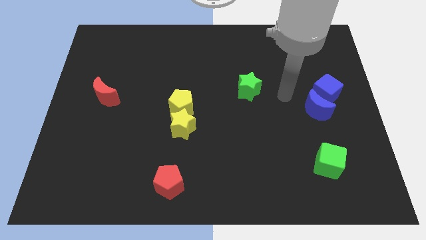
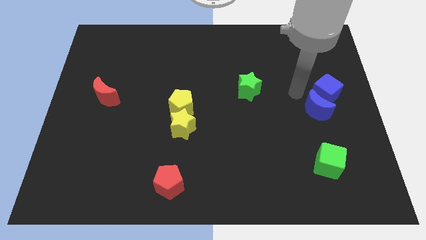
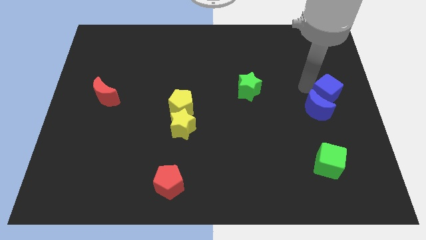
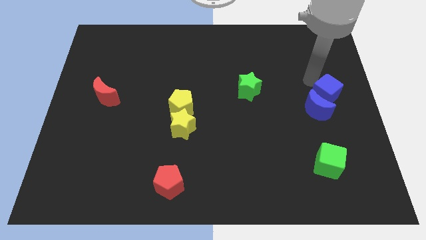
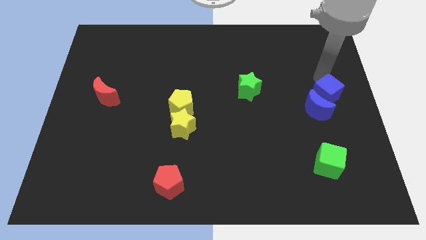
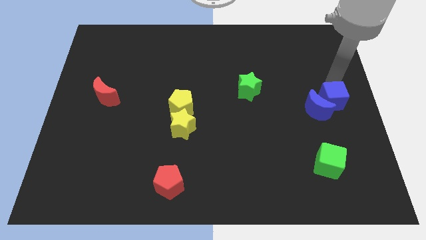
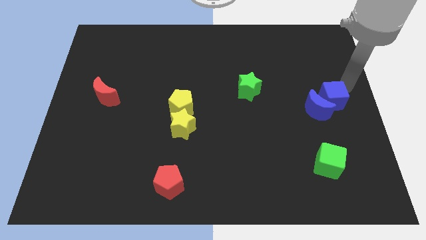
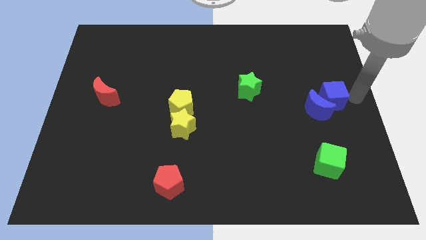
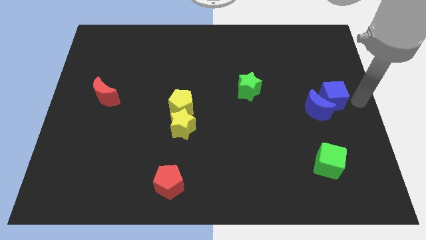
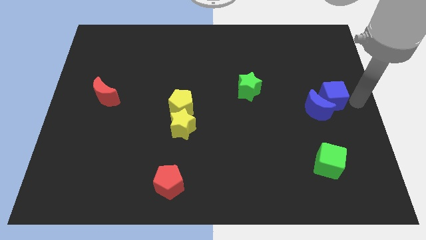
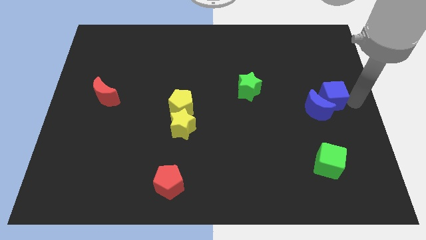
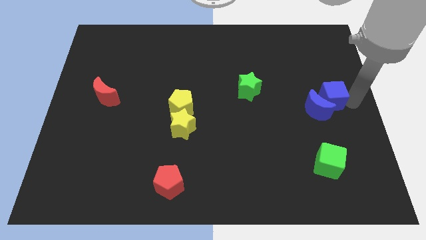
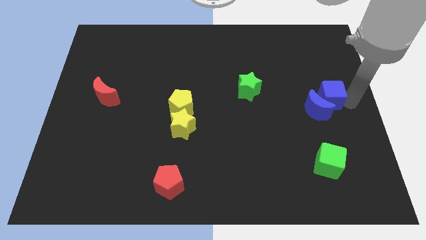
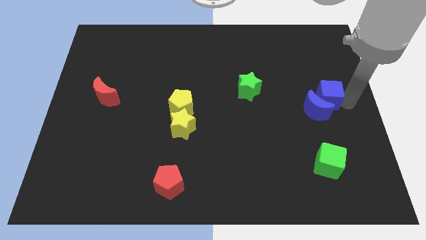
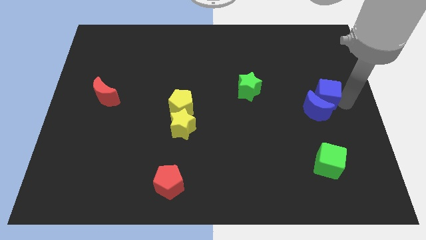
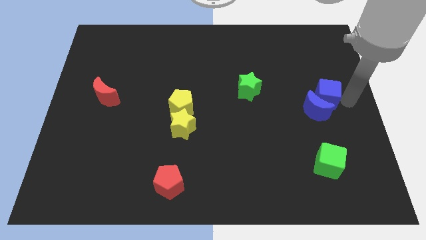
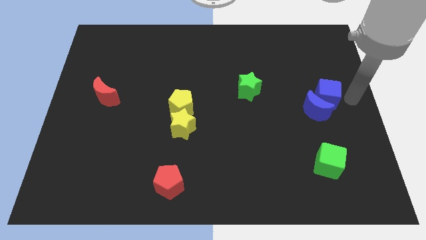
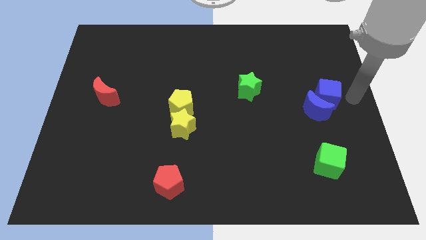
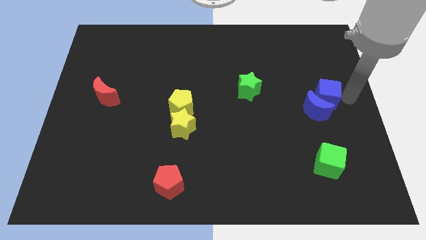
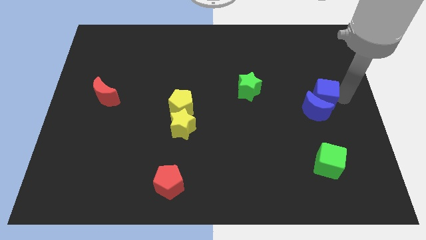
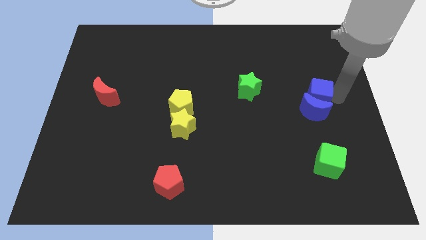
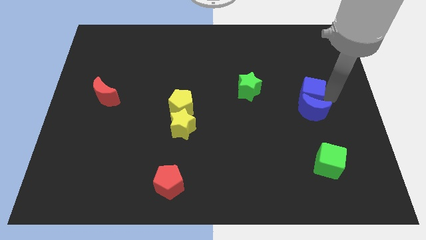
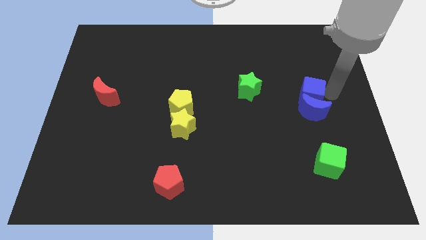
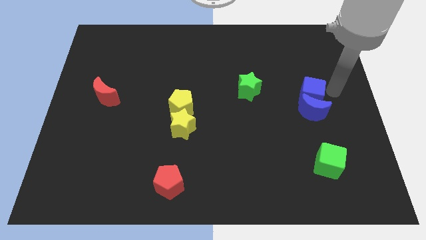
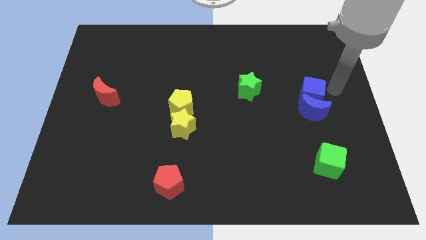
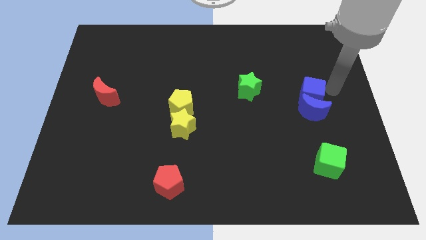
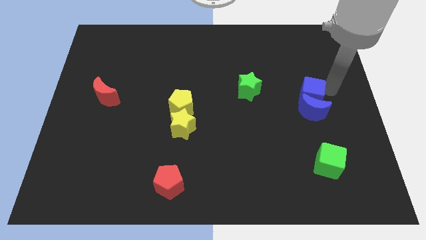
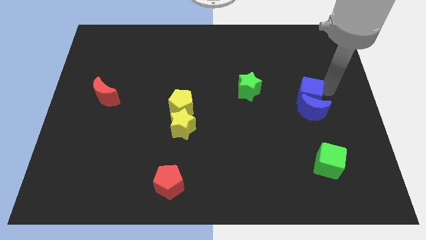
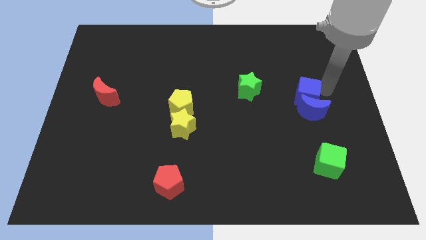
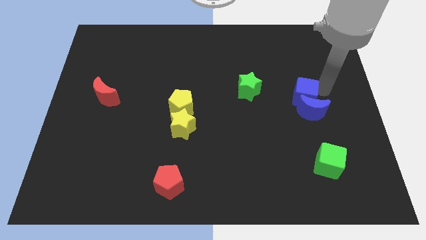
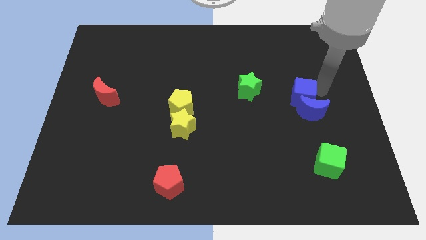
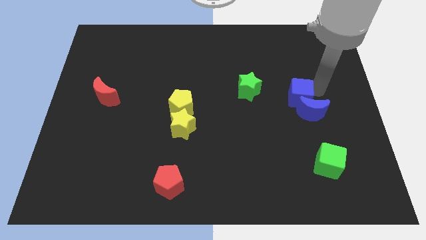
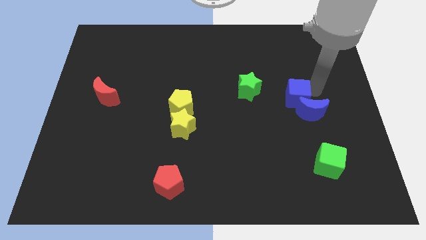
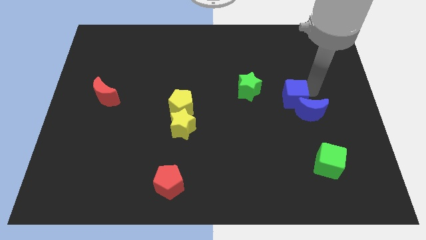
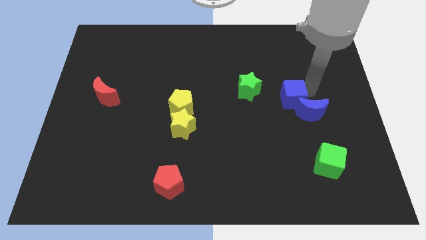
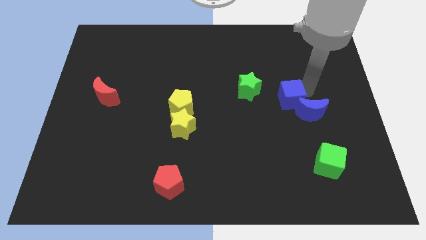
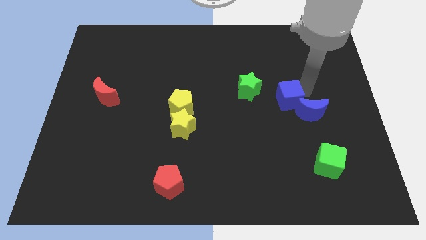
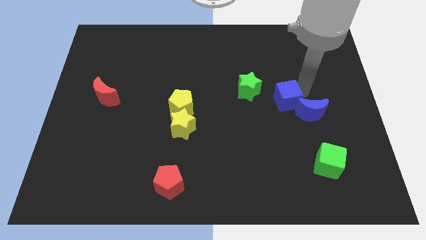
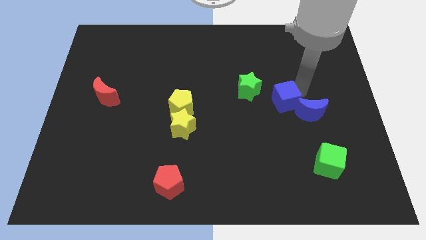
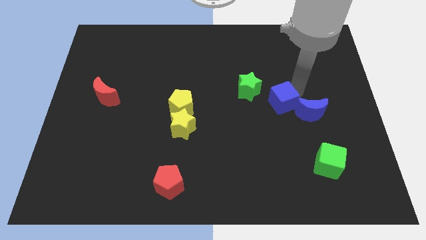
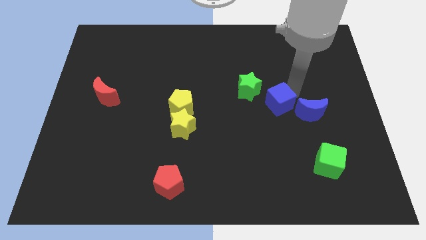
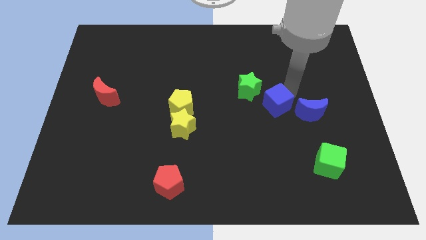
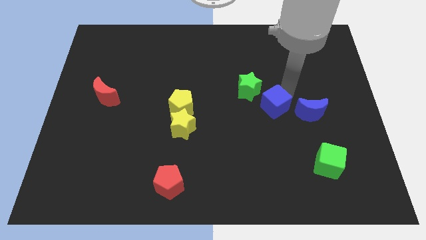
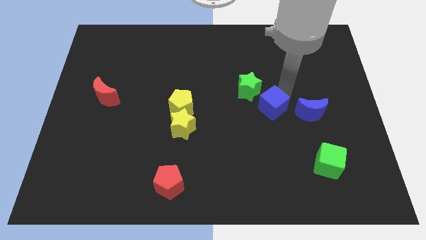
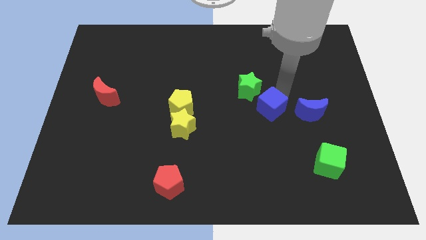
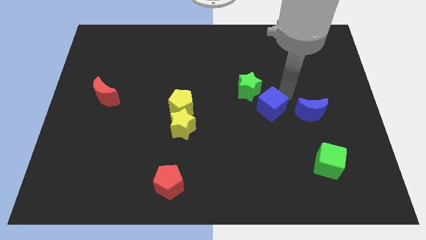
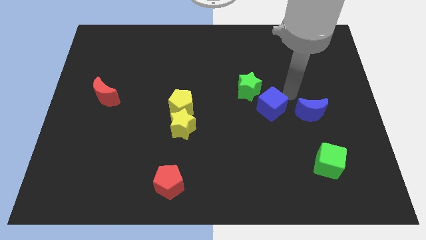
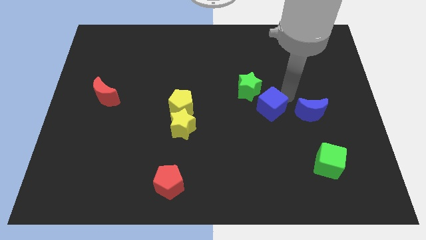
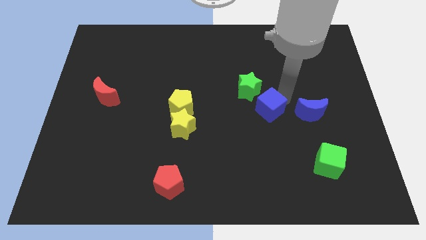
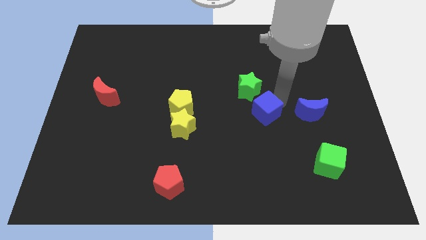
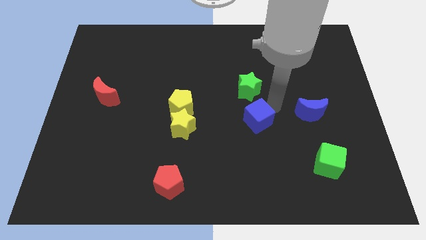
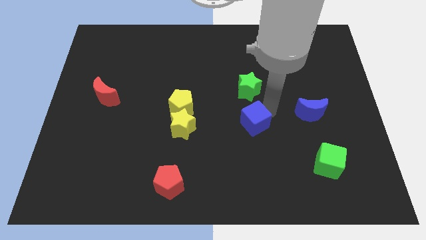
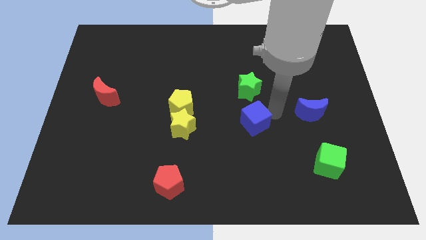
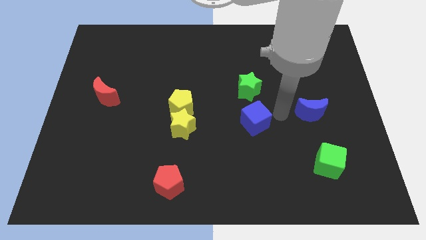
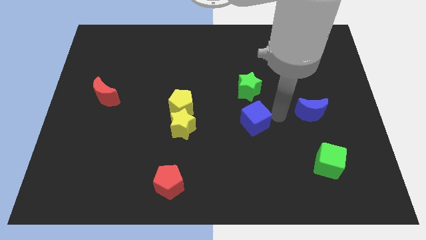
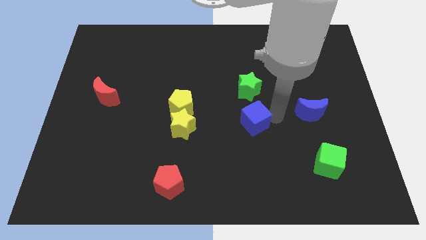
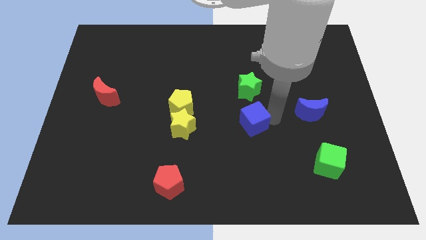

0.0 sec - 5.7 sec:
slide the blue cube just right of the yellow star

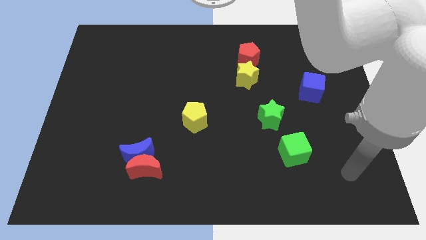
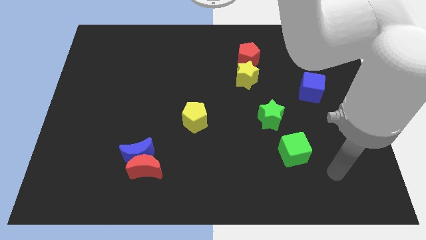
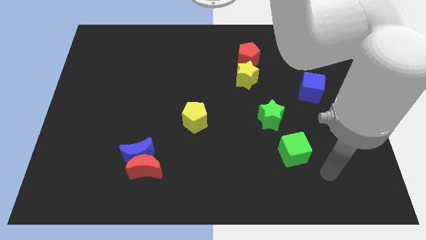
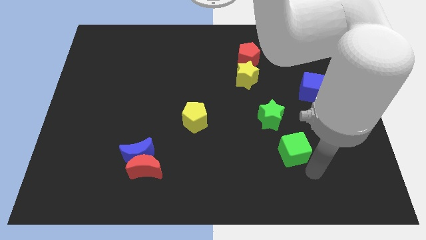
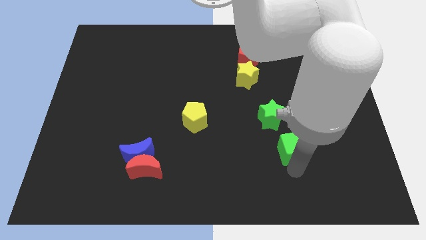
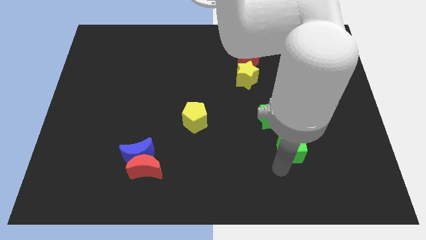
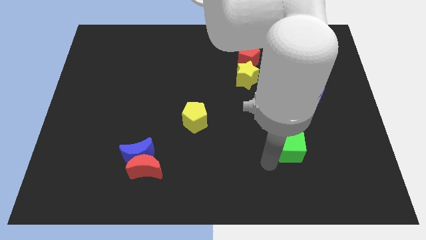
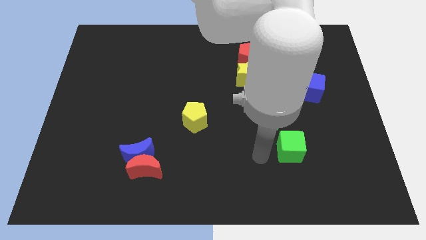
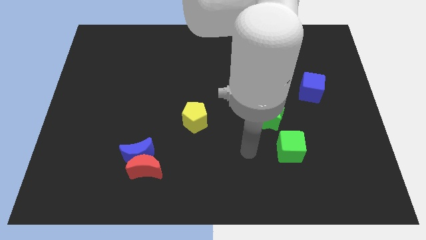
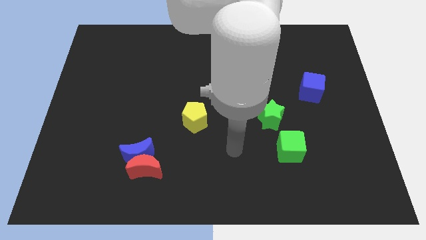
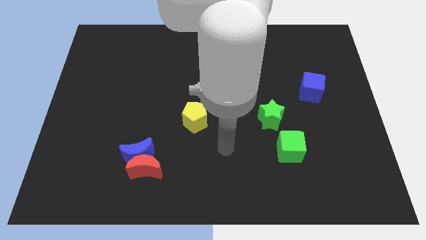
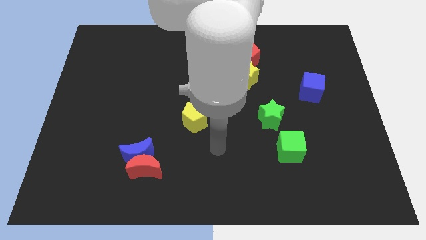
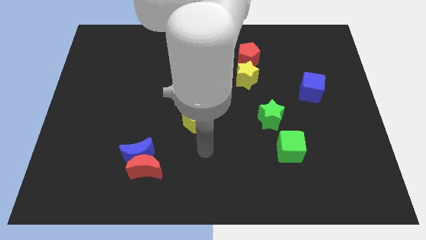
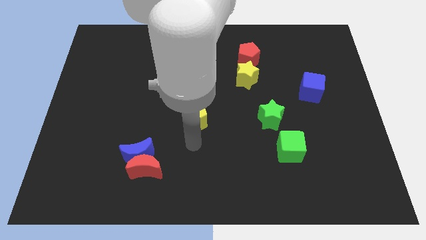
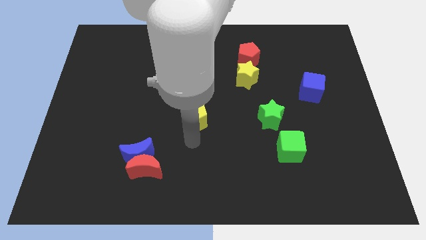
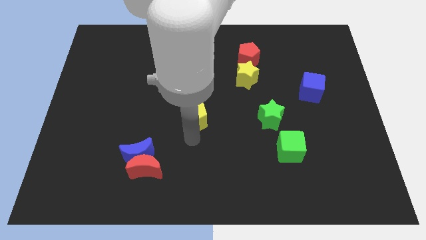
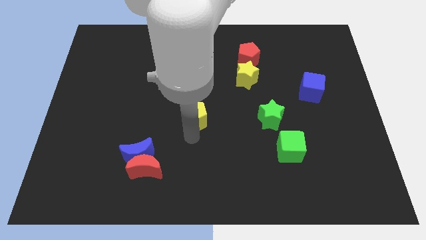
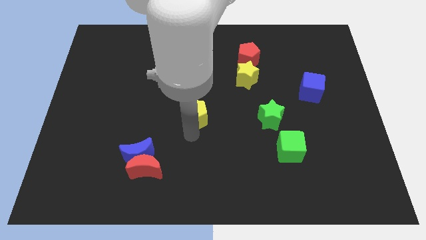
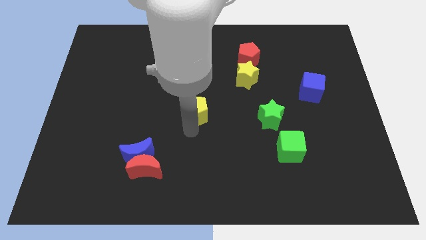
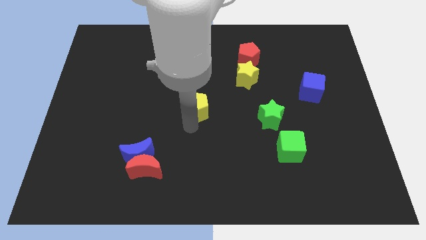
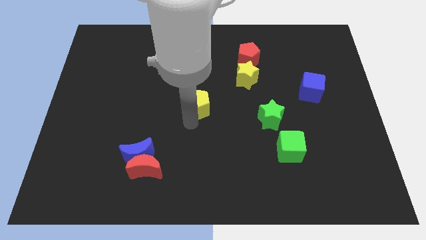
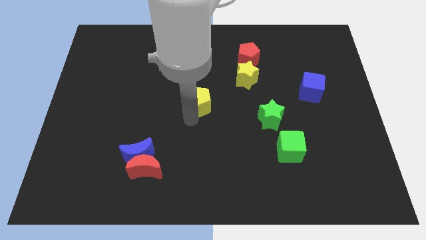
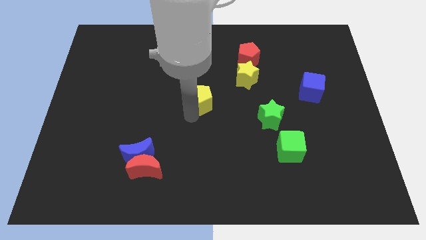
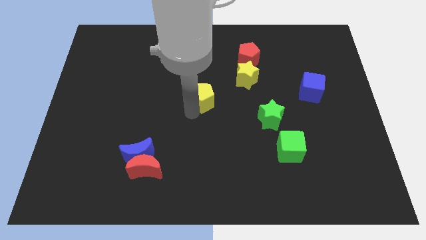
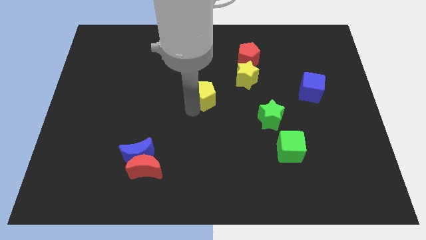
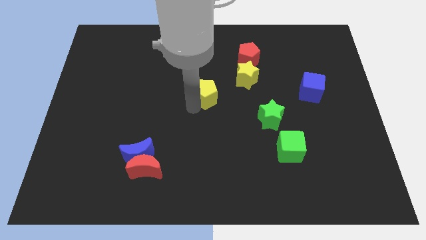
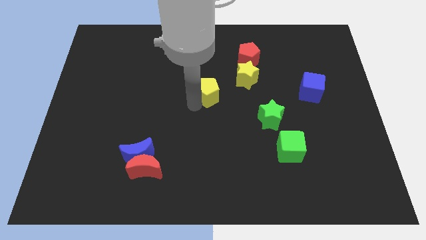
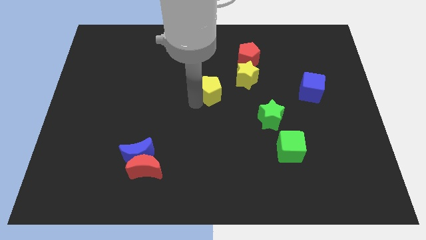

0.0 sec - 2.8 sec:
push the yellow pentagon to the left of the yellow star
